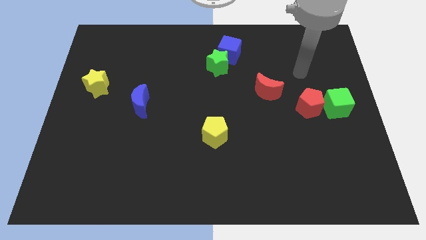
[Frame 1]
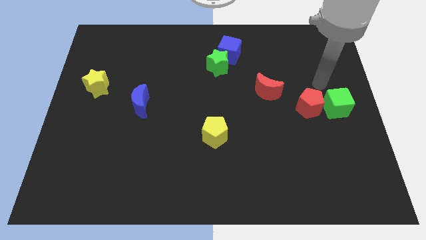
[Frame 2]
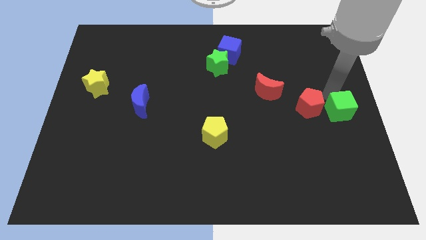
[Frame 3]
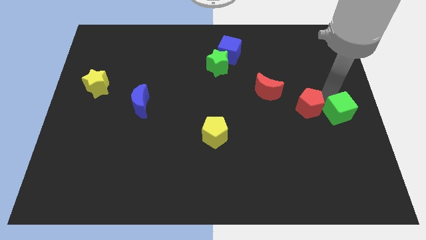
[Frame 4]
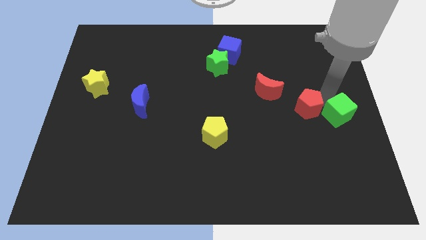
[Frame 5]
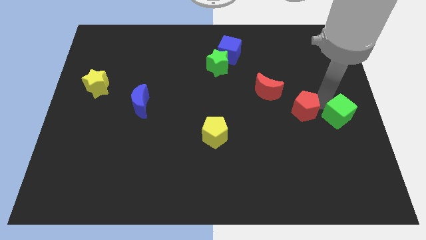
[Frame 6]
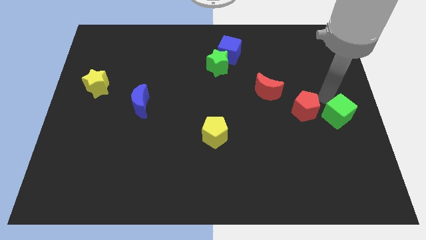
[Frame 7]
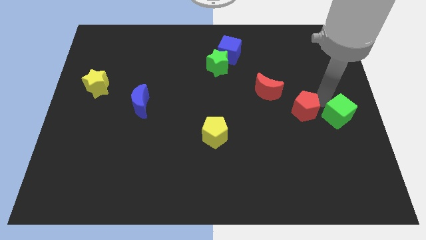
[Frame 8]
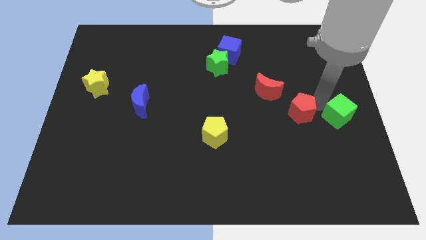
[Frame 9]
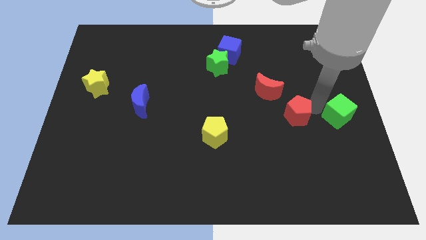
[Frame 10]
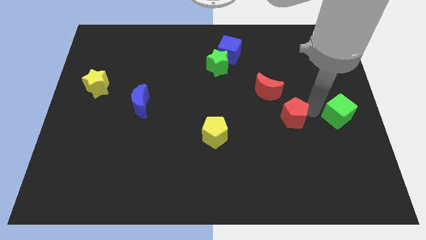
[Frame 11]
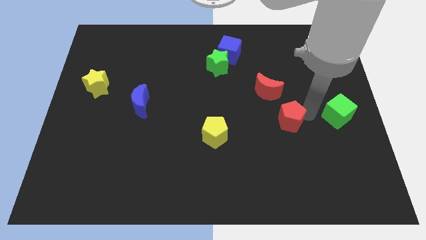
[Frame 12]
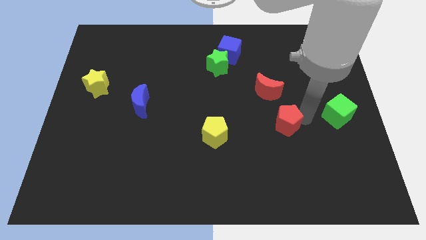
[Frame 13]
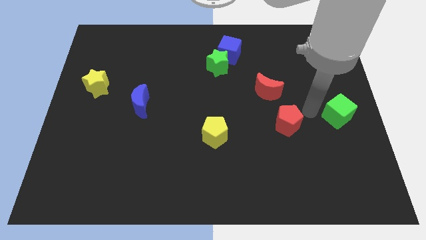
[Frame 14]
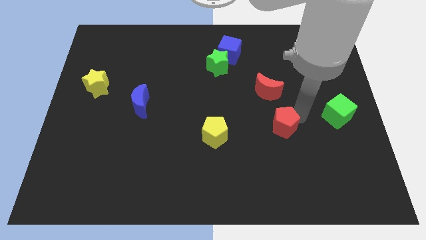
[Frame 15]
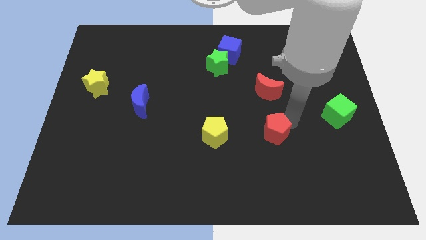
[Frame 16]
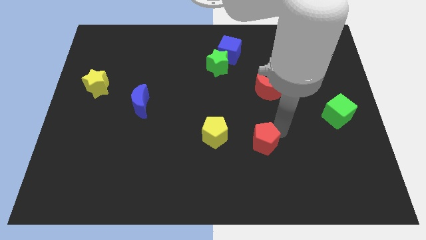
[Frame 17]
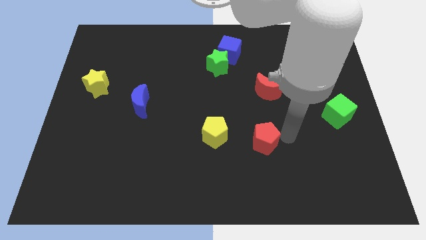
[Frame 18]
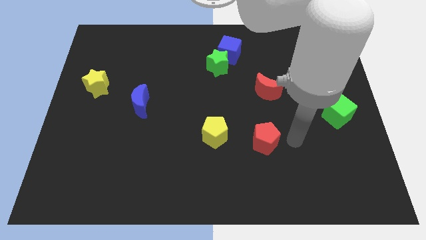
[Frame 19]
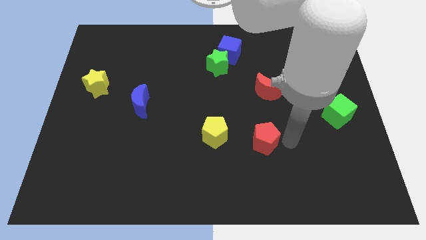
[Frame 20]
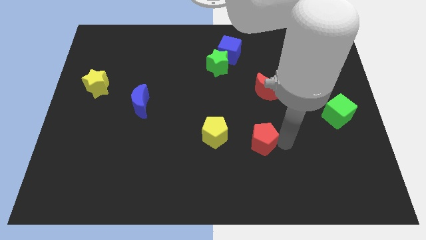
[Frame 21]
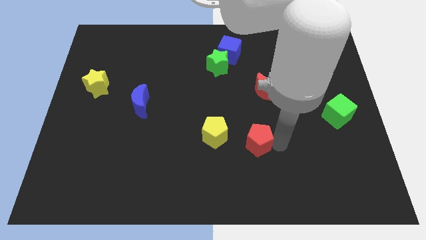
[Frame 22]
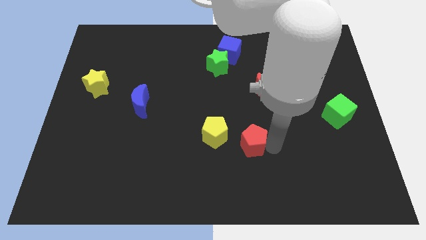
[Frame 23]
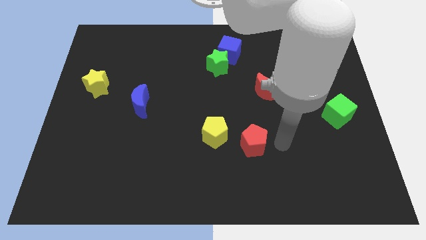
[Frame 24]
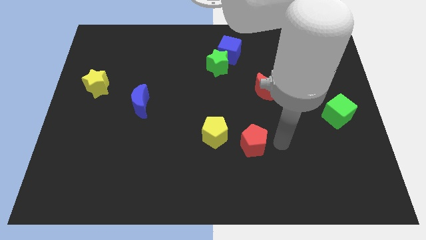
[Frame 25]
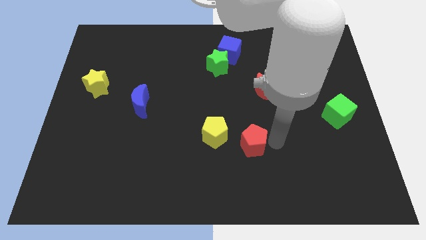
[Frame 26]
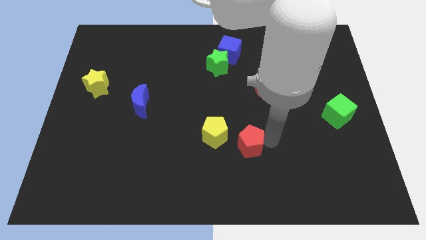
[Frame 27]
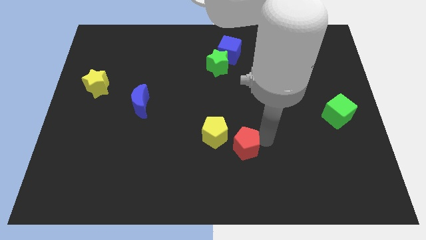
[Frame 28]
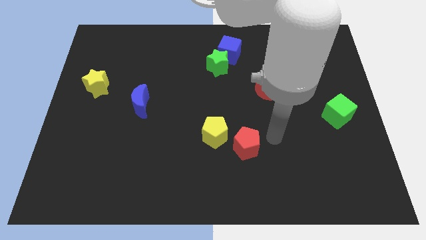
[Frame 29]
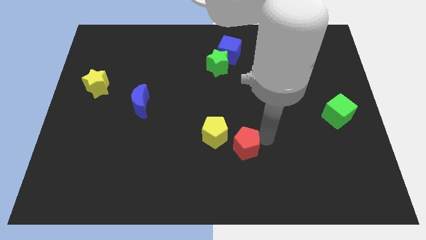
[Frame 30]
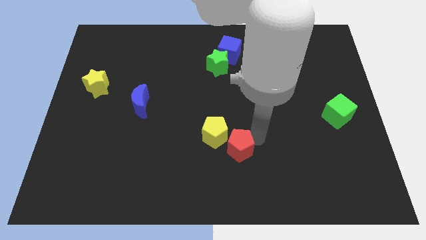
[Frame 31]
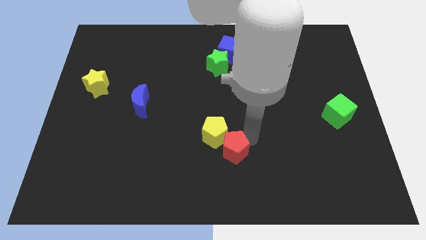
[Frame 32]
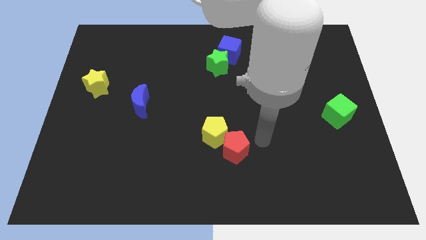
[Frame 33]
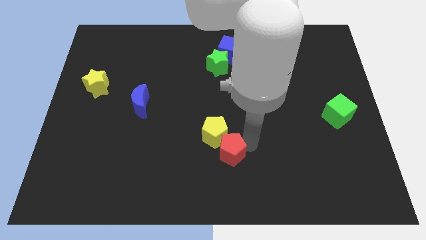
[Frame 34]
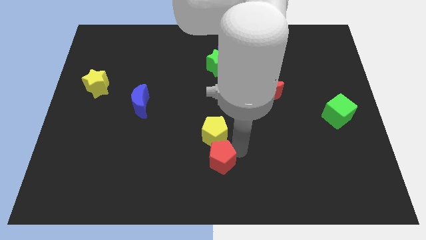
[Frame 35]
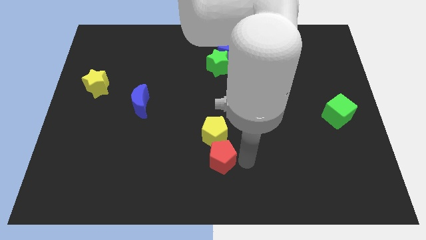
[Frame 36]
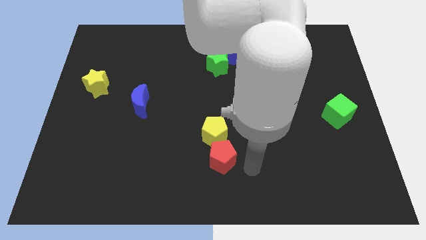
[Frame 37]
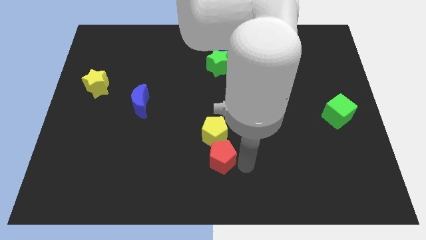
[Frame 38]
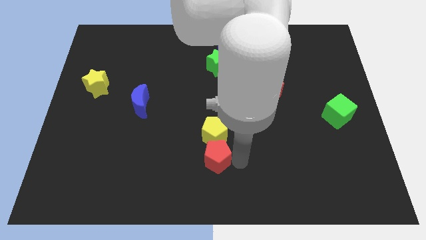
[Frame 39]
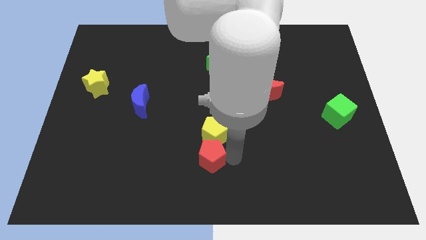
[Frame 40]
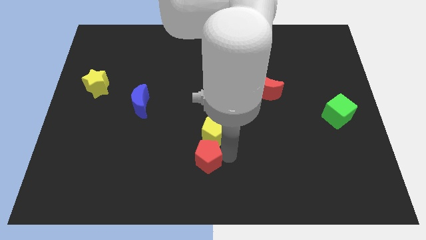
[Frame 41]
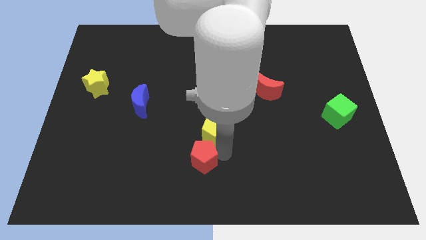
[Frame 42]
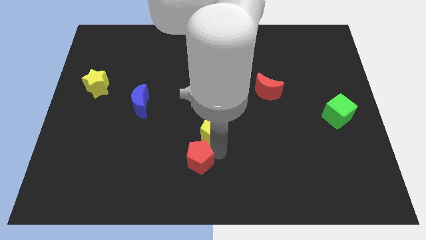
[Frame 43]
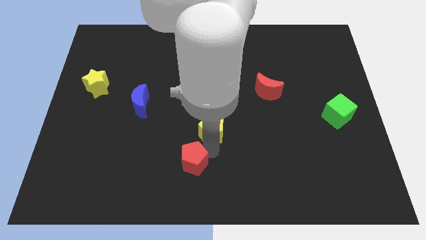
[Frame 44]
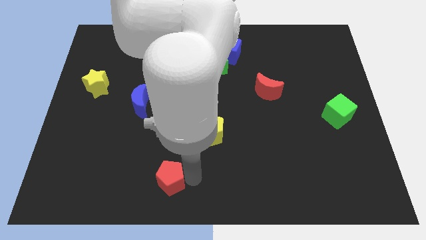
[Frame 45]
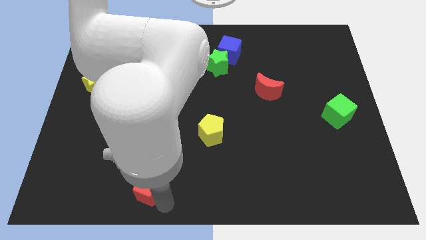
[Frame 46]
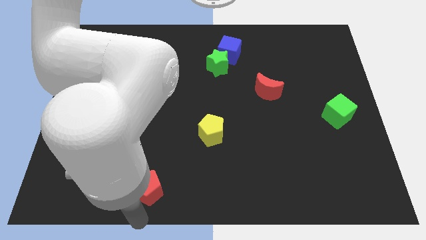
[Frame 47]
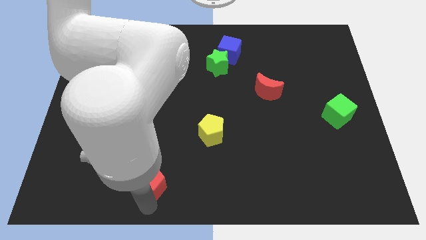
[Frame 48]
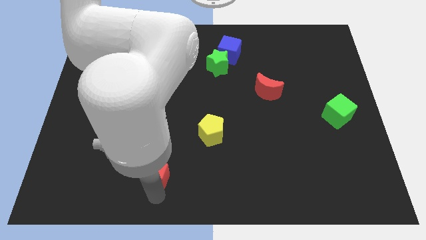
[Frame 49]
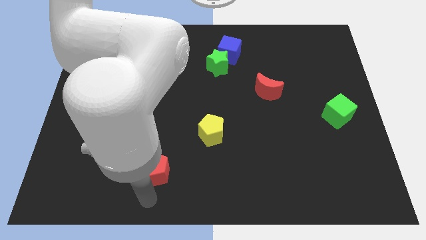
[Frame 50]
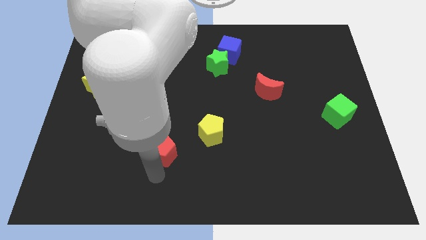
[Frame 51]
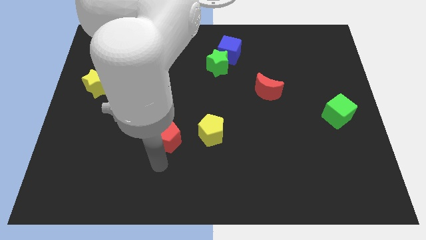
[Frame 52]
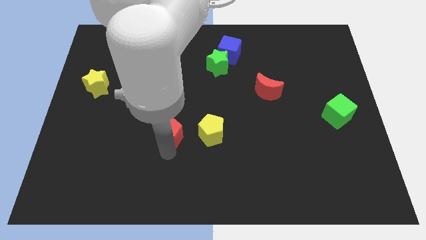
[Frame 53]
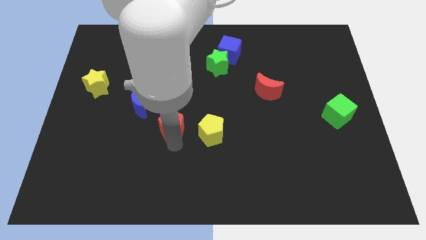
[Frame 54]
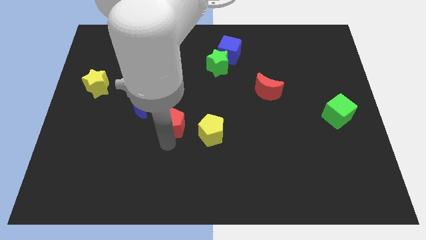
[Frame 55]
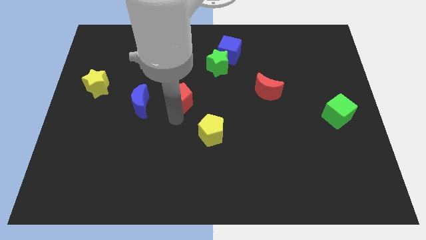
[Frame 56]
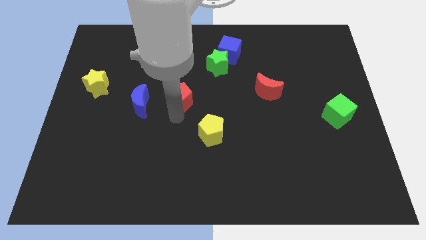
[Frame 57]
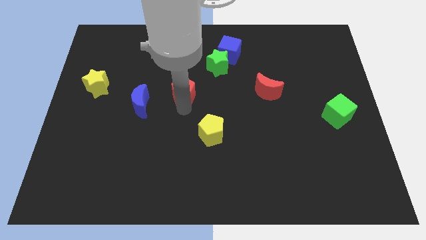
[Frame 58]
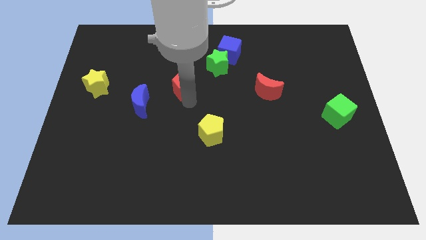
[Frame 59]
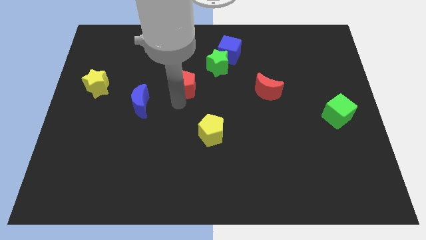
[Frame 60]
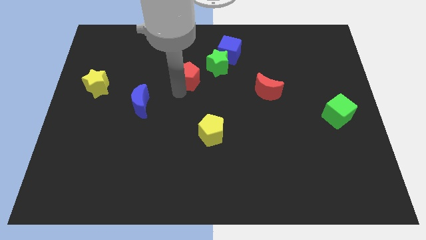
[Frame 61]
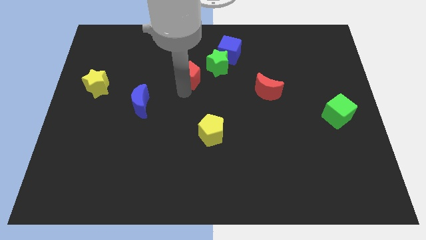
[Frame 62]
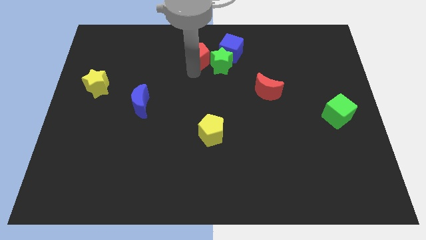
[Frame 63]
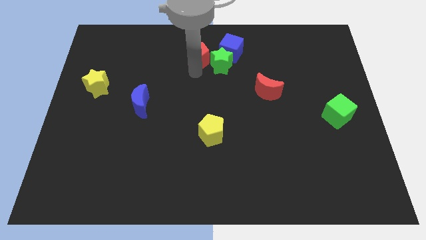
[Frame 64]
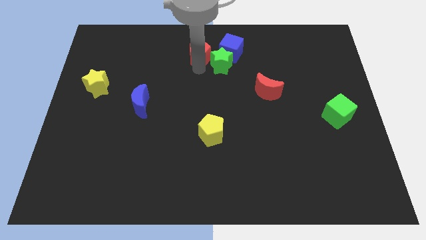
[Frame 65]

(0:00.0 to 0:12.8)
put the red pentagon to the top
